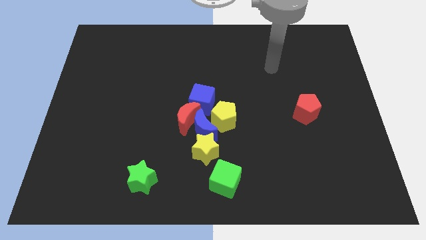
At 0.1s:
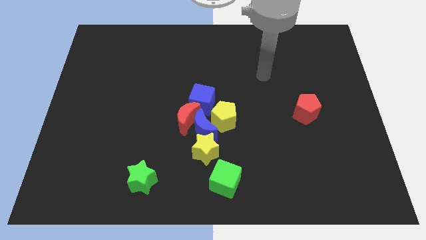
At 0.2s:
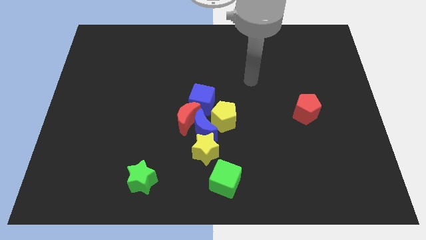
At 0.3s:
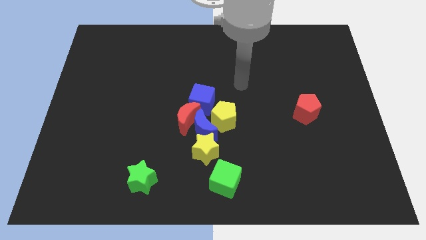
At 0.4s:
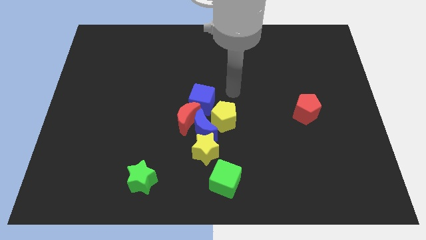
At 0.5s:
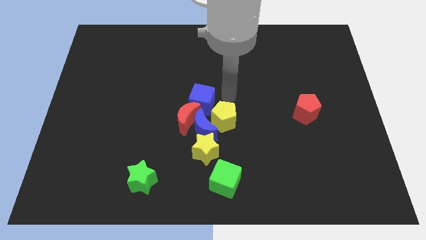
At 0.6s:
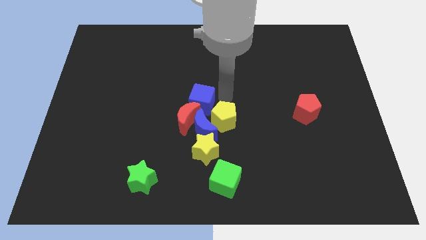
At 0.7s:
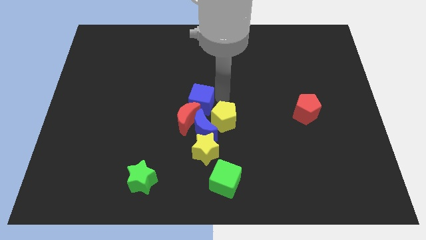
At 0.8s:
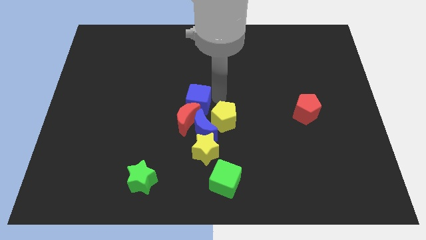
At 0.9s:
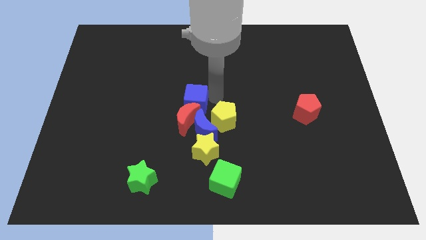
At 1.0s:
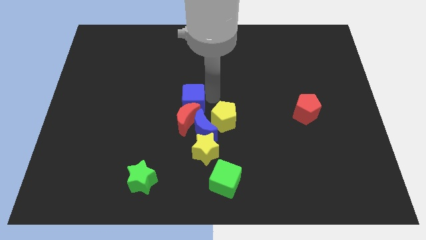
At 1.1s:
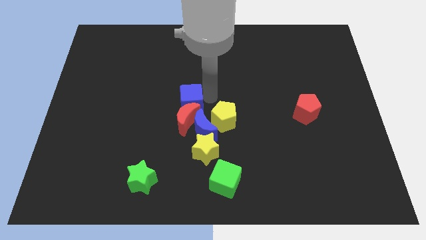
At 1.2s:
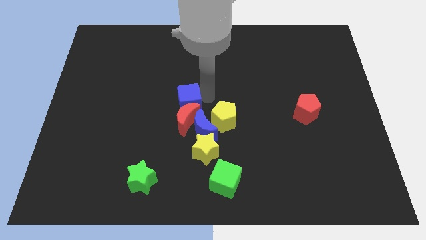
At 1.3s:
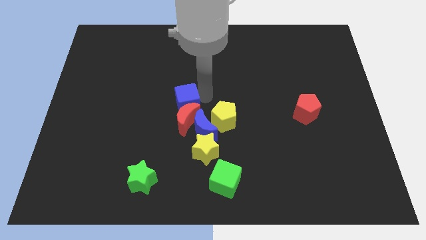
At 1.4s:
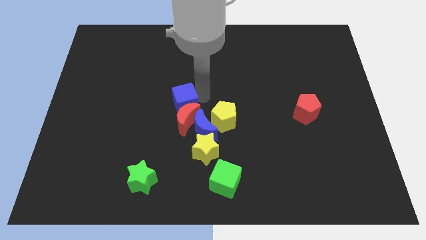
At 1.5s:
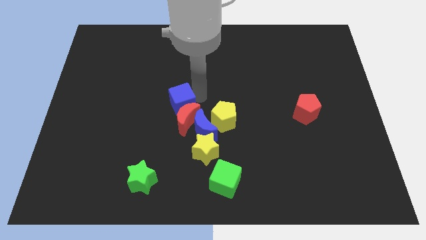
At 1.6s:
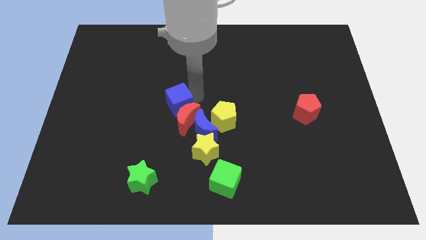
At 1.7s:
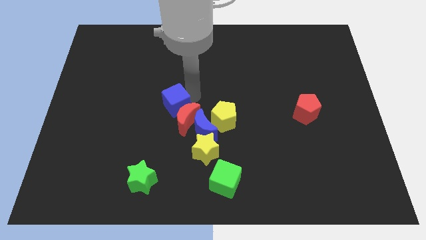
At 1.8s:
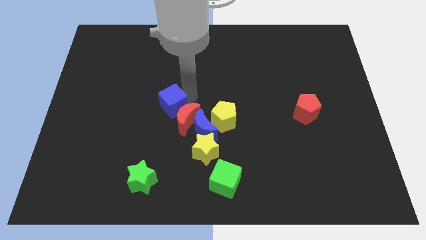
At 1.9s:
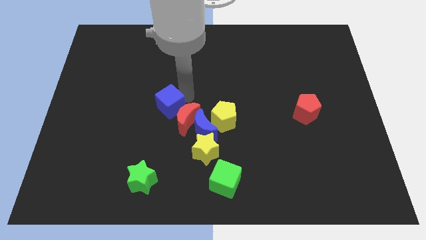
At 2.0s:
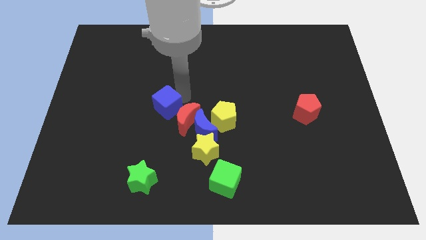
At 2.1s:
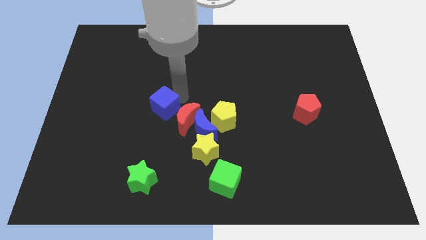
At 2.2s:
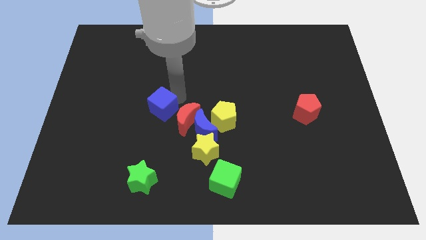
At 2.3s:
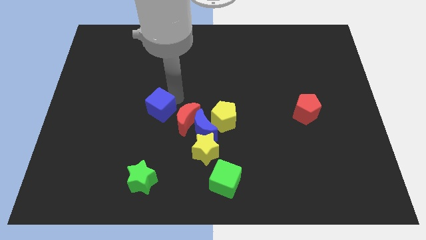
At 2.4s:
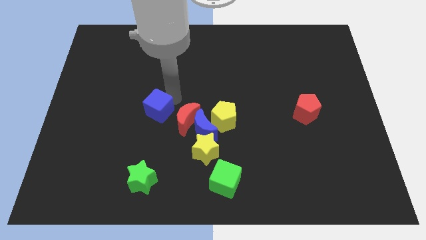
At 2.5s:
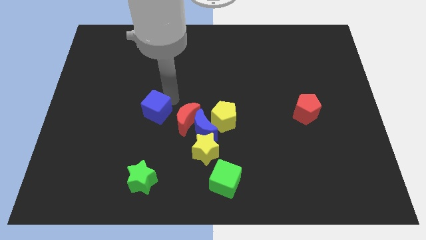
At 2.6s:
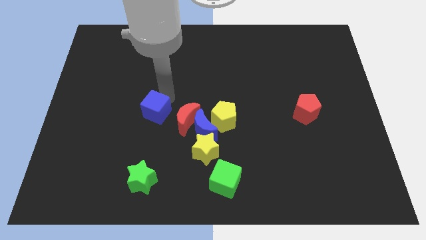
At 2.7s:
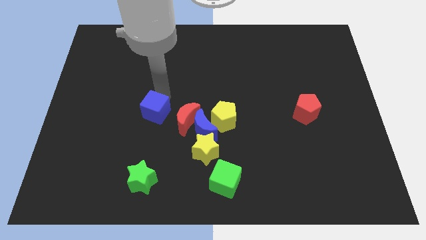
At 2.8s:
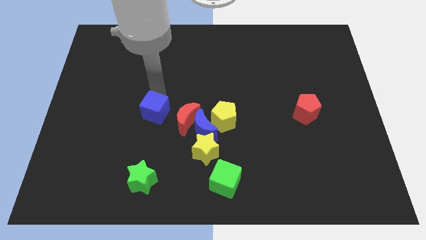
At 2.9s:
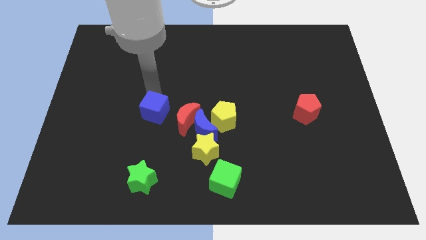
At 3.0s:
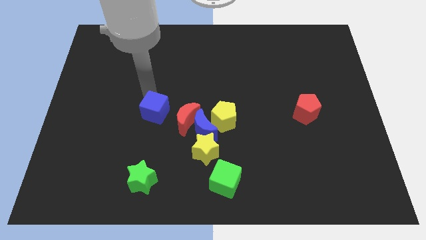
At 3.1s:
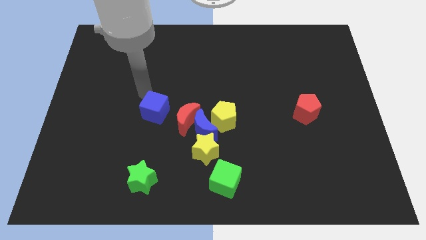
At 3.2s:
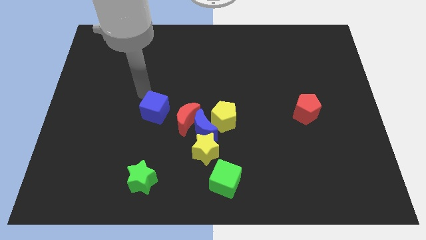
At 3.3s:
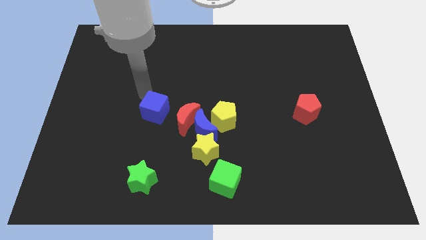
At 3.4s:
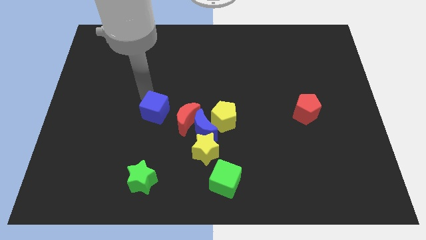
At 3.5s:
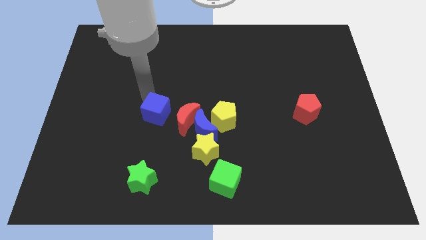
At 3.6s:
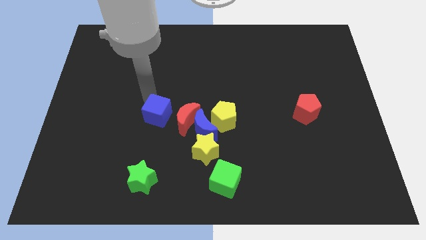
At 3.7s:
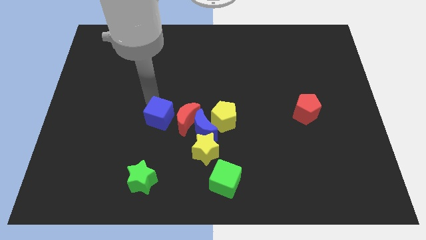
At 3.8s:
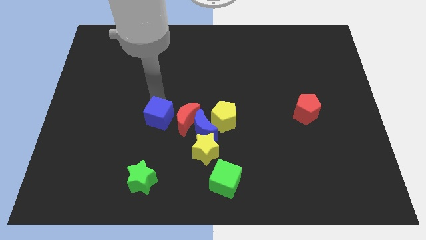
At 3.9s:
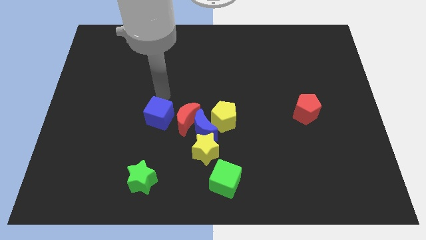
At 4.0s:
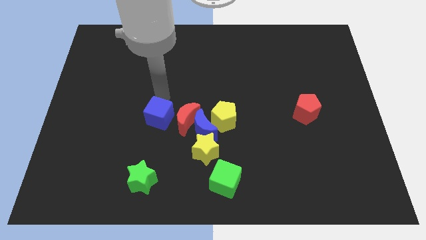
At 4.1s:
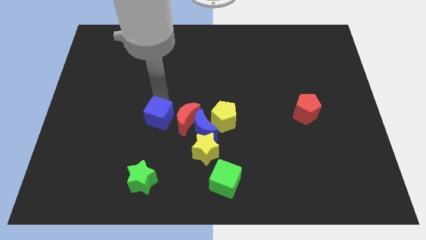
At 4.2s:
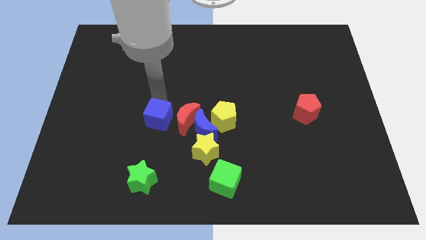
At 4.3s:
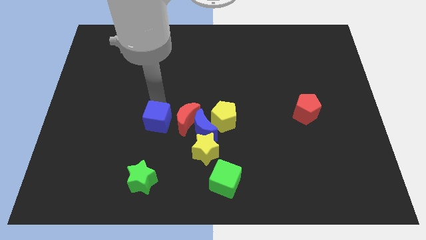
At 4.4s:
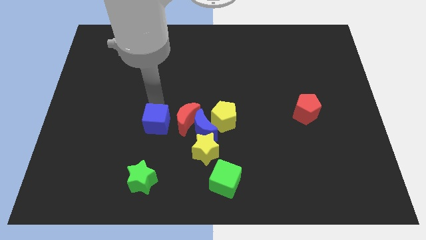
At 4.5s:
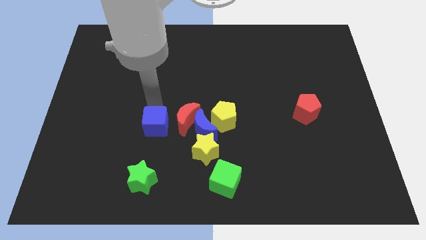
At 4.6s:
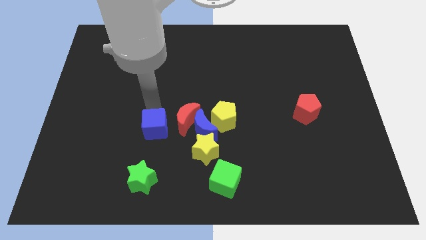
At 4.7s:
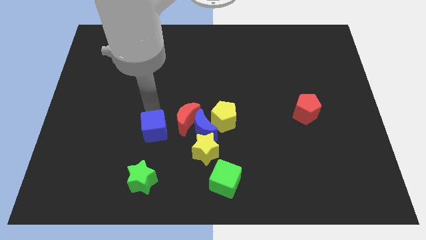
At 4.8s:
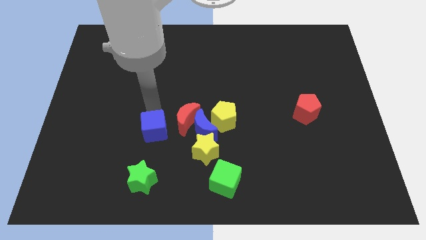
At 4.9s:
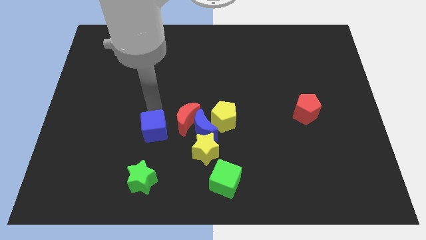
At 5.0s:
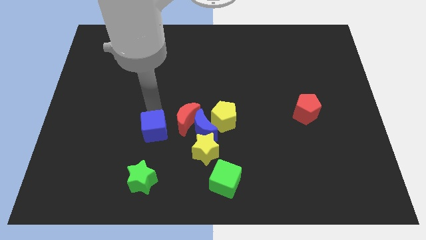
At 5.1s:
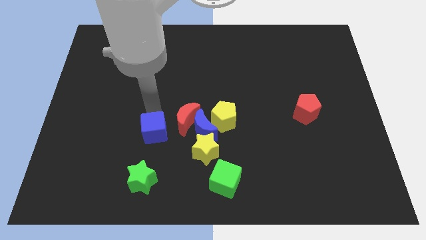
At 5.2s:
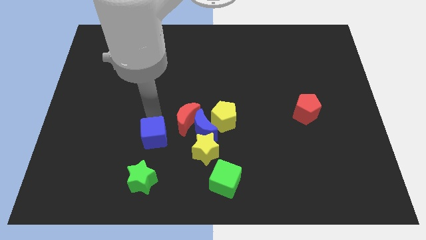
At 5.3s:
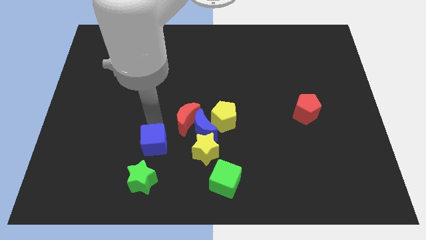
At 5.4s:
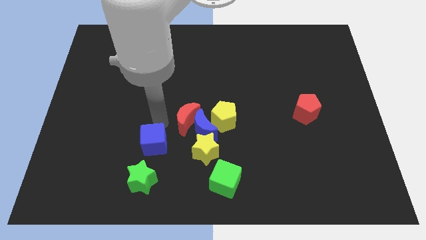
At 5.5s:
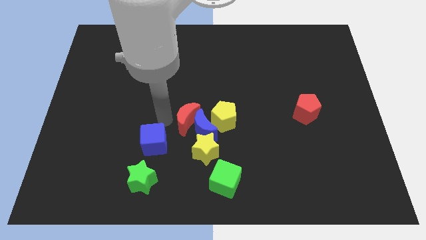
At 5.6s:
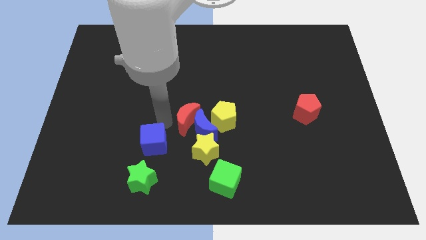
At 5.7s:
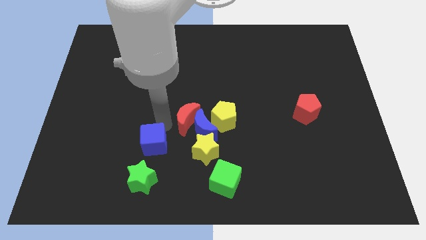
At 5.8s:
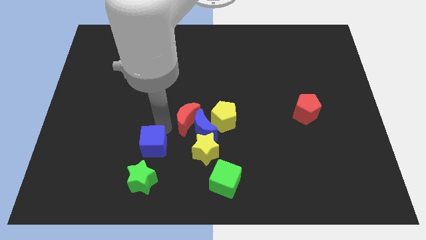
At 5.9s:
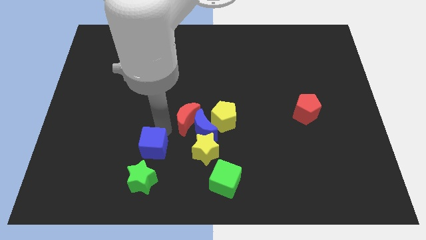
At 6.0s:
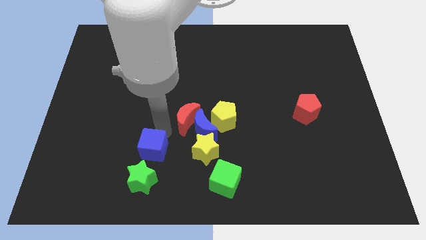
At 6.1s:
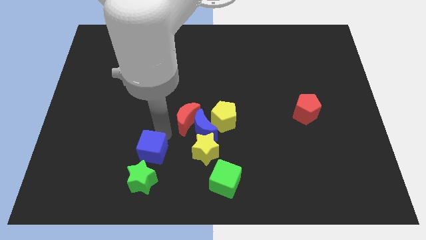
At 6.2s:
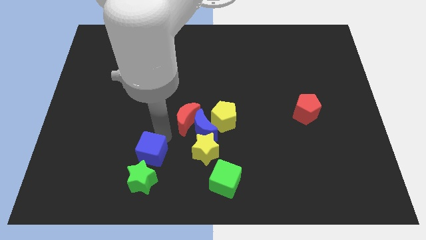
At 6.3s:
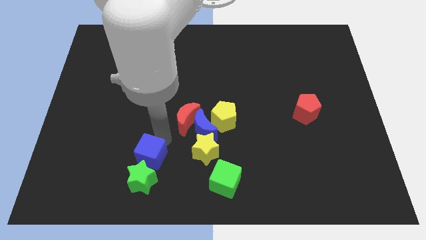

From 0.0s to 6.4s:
slide the blue cube towards the green star

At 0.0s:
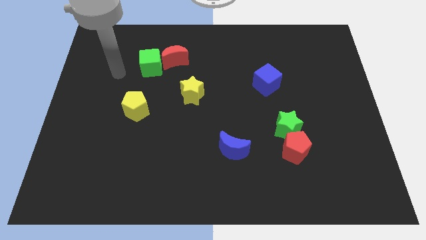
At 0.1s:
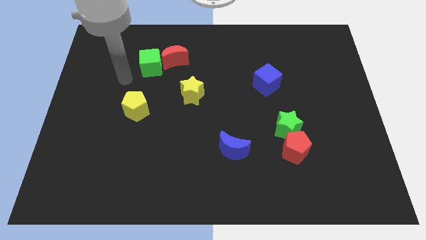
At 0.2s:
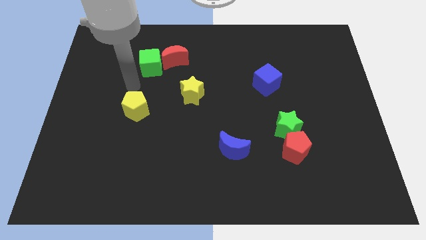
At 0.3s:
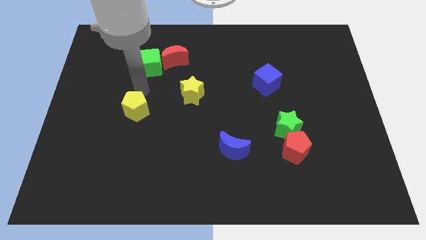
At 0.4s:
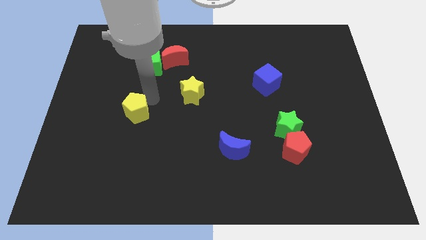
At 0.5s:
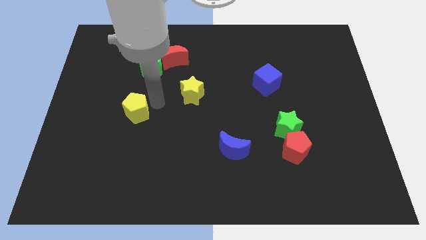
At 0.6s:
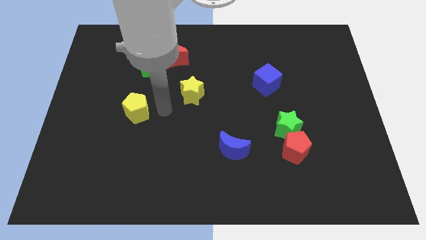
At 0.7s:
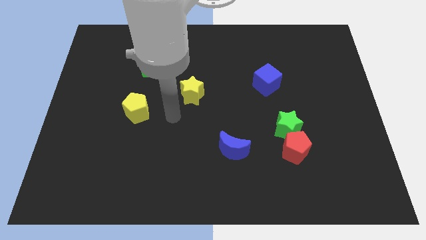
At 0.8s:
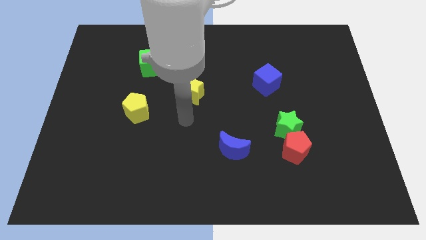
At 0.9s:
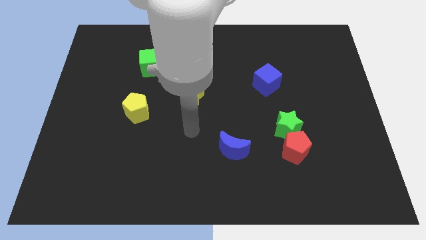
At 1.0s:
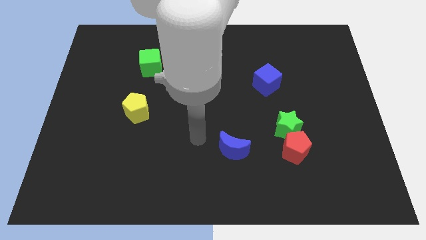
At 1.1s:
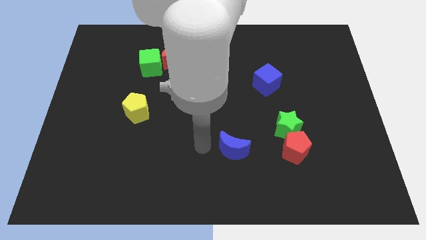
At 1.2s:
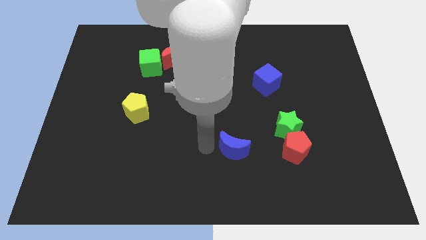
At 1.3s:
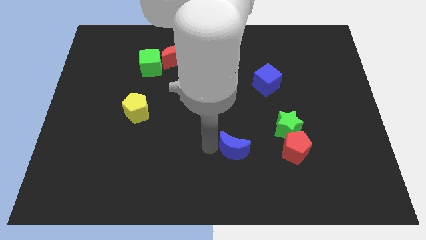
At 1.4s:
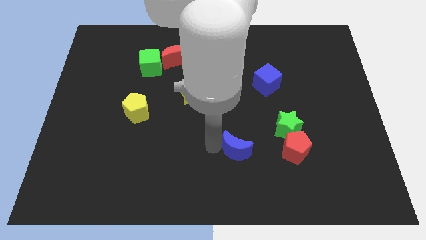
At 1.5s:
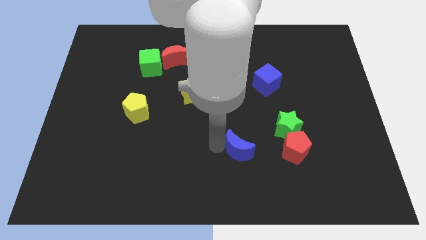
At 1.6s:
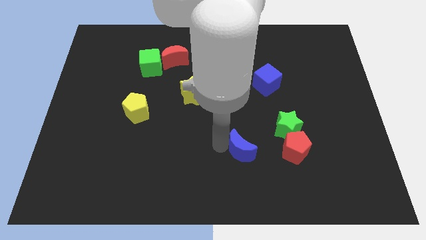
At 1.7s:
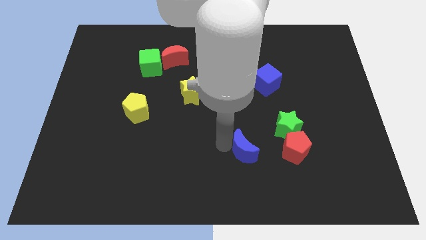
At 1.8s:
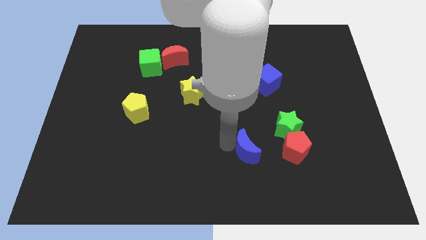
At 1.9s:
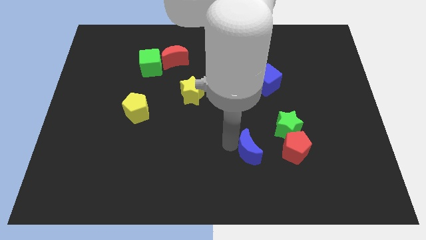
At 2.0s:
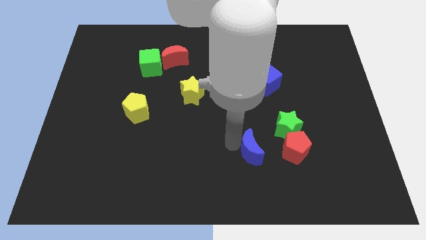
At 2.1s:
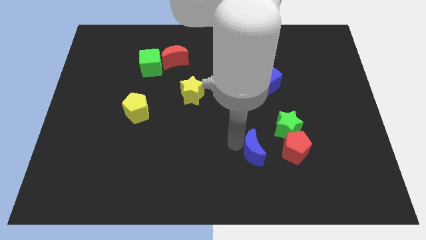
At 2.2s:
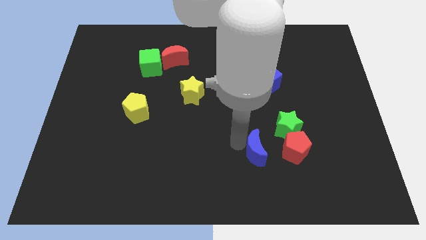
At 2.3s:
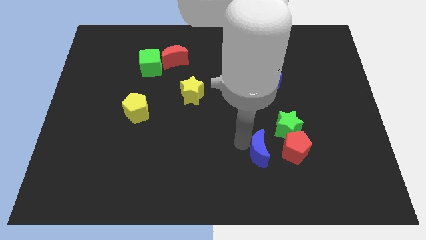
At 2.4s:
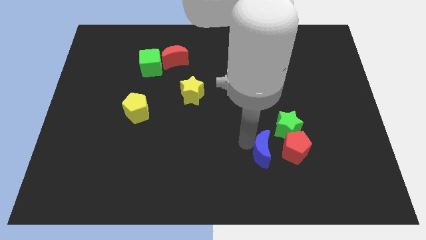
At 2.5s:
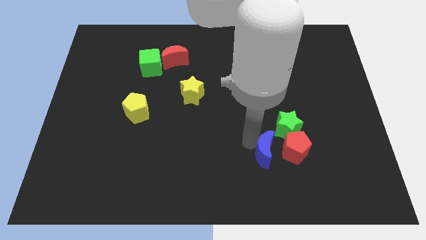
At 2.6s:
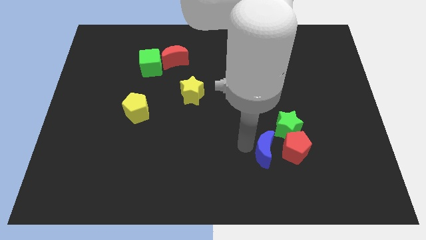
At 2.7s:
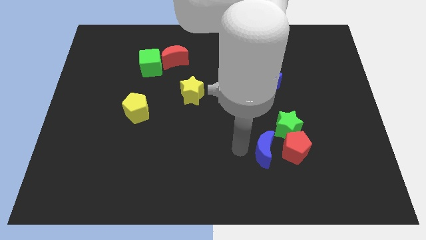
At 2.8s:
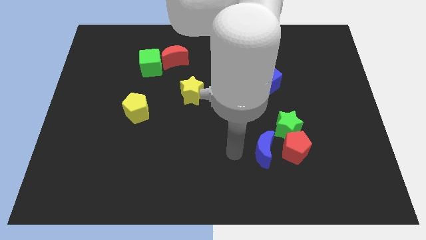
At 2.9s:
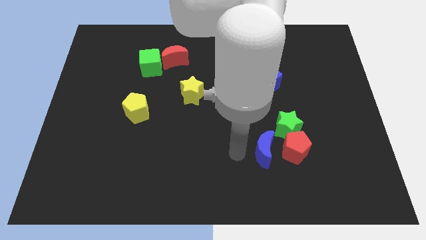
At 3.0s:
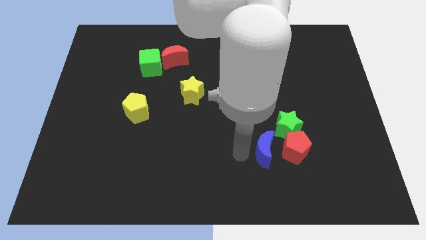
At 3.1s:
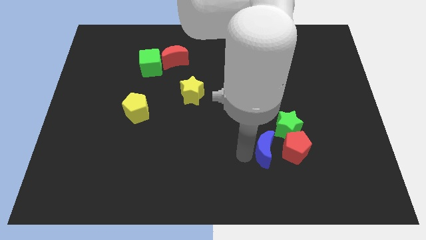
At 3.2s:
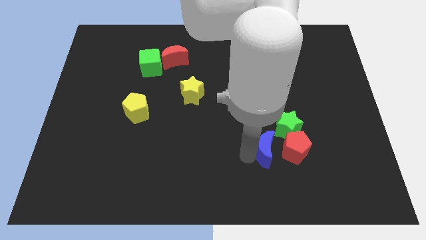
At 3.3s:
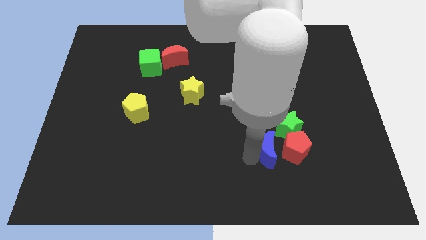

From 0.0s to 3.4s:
move the blue moon close to the red pentagon
